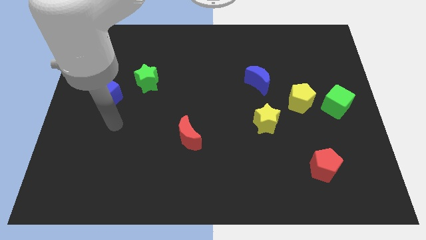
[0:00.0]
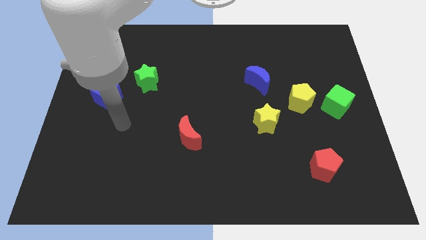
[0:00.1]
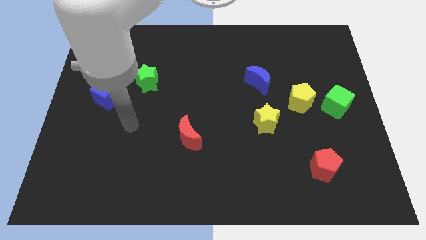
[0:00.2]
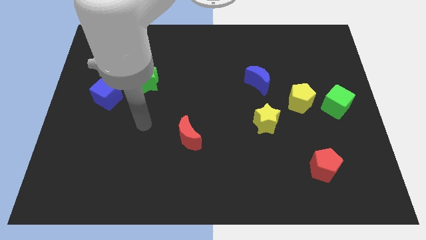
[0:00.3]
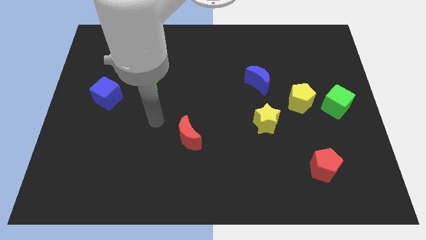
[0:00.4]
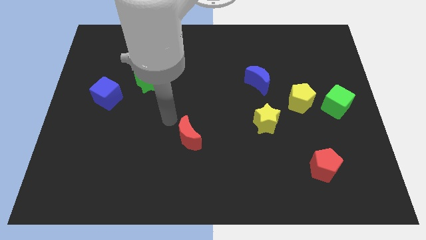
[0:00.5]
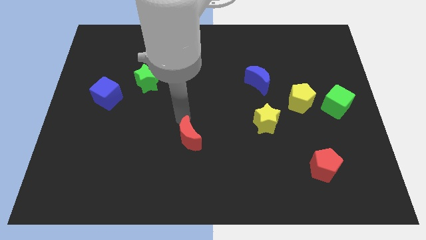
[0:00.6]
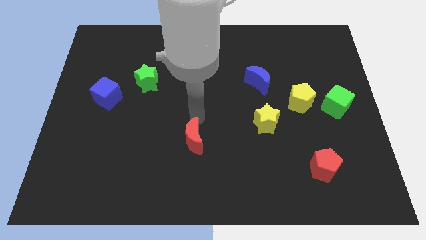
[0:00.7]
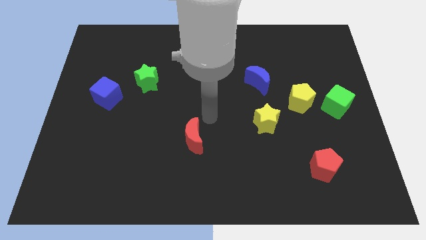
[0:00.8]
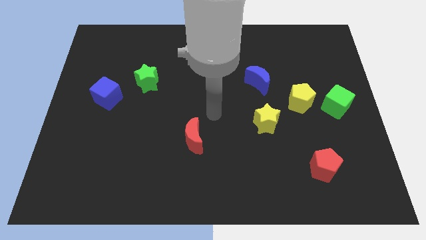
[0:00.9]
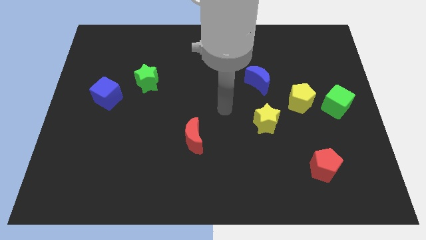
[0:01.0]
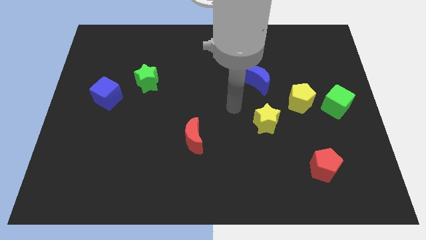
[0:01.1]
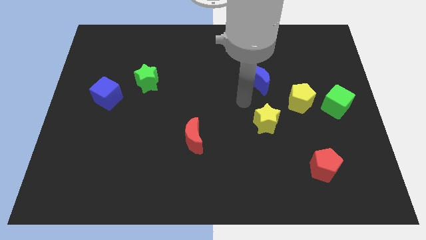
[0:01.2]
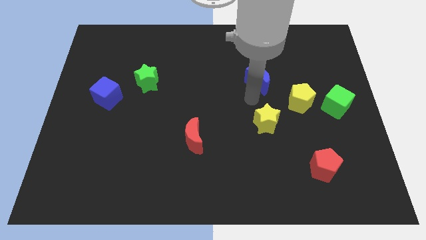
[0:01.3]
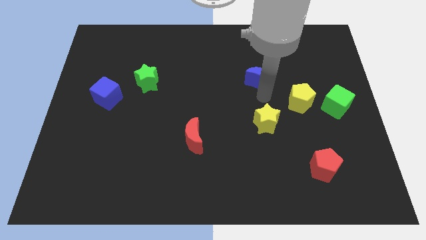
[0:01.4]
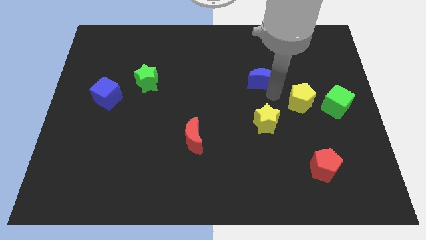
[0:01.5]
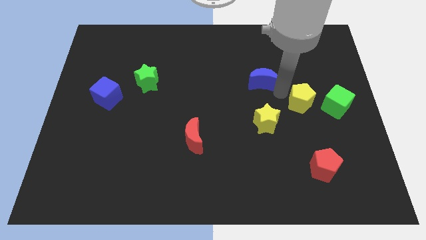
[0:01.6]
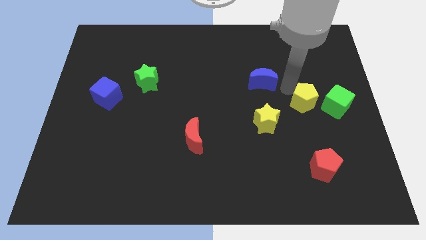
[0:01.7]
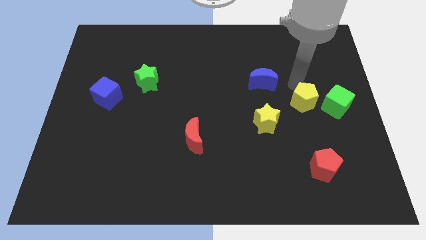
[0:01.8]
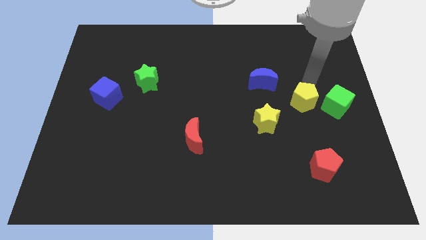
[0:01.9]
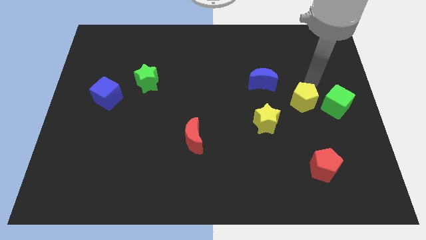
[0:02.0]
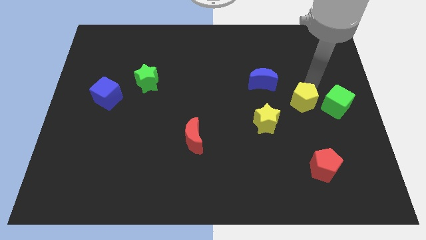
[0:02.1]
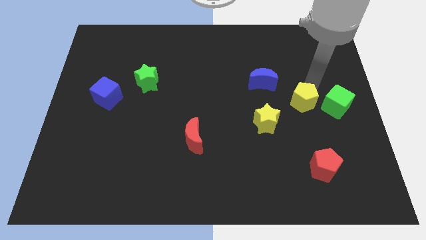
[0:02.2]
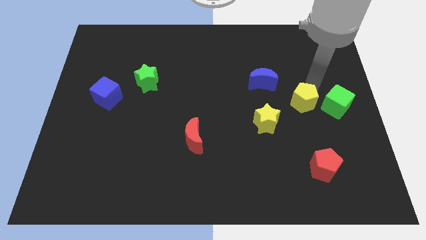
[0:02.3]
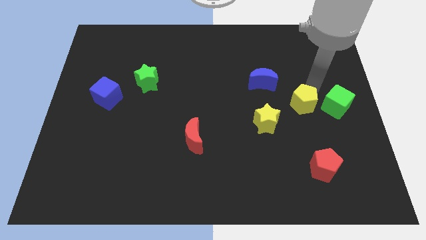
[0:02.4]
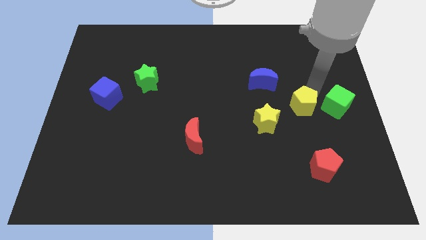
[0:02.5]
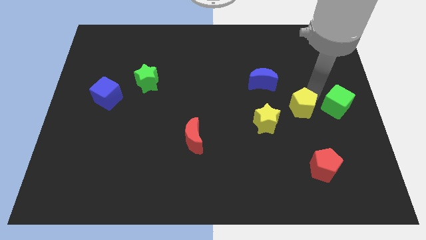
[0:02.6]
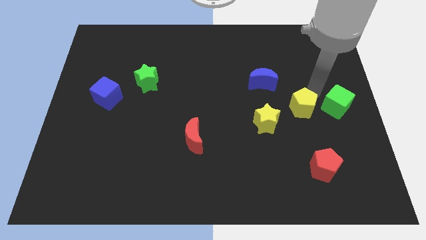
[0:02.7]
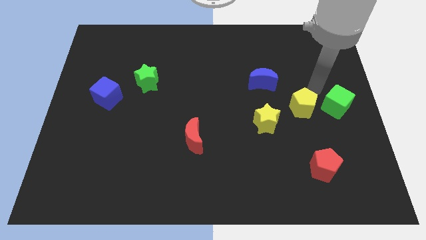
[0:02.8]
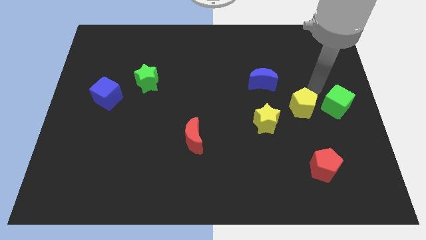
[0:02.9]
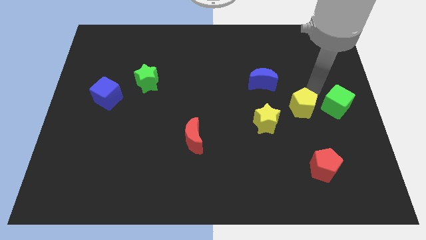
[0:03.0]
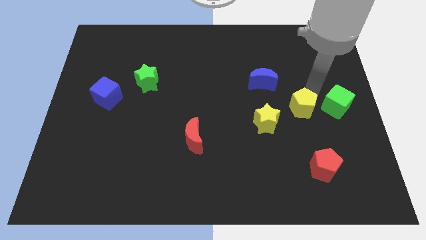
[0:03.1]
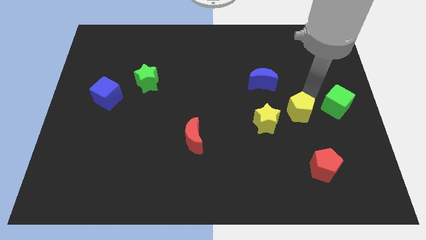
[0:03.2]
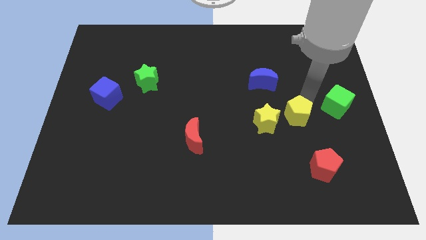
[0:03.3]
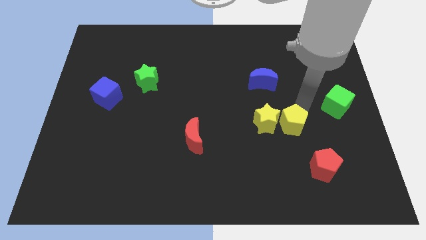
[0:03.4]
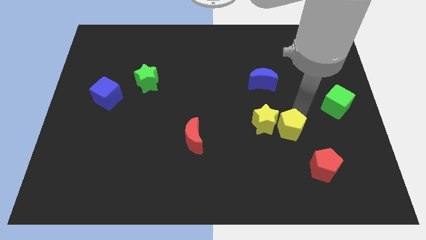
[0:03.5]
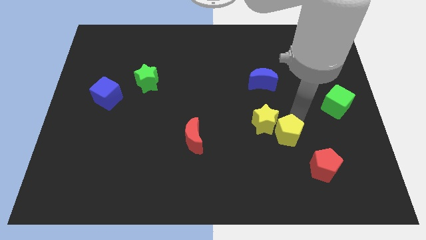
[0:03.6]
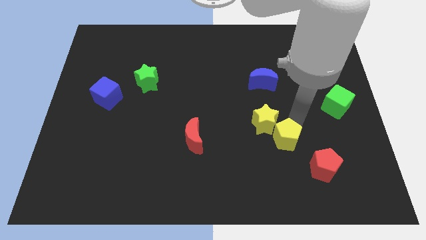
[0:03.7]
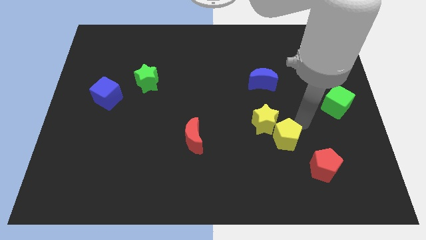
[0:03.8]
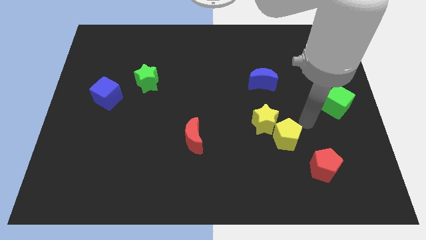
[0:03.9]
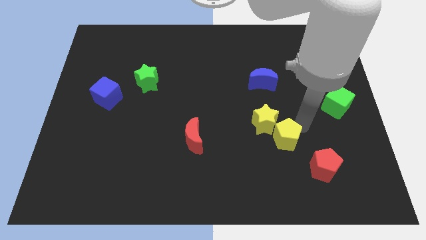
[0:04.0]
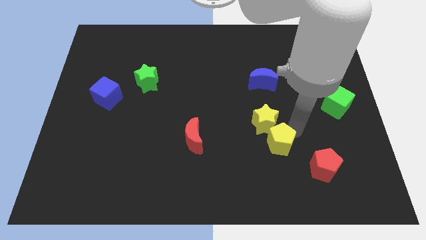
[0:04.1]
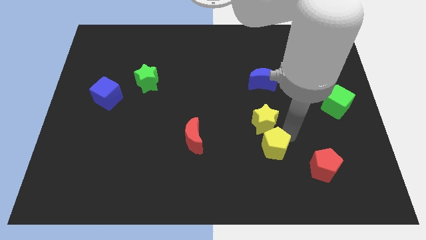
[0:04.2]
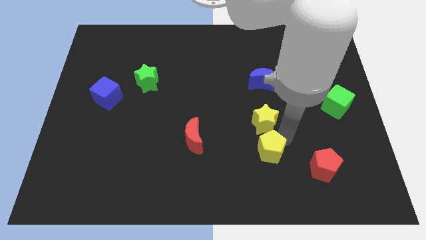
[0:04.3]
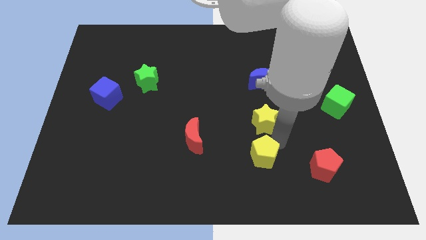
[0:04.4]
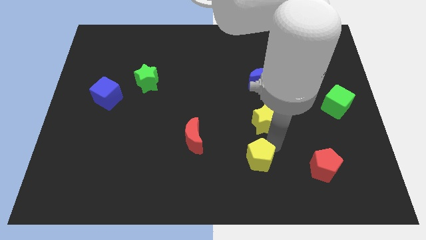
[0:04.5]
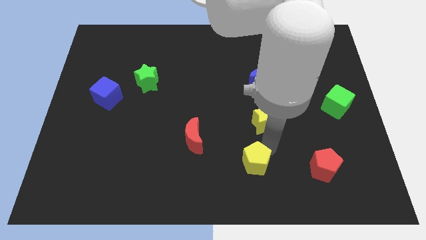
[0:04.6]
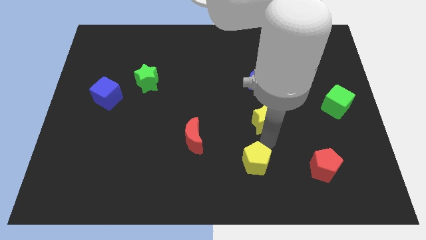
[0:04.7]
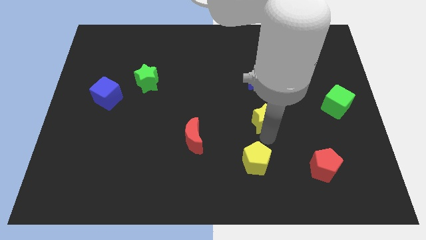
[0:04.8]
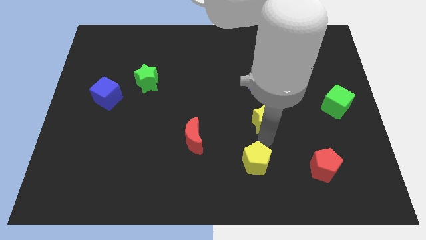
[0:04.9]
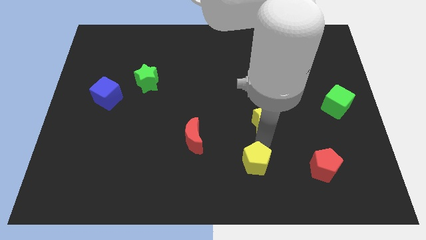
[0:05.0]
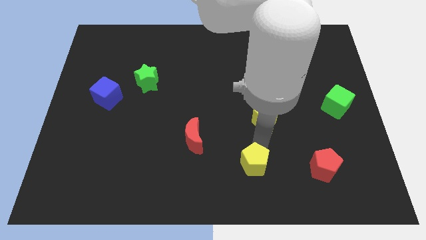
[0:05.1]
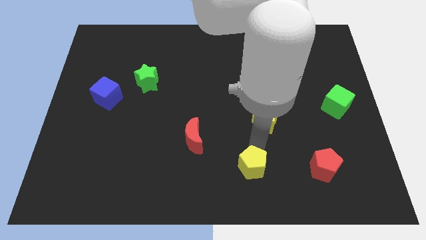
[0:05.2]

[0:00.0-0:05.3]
put the yellow pentagon to the bottom

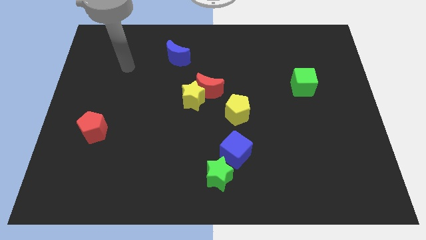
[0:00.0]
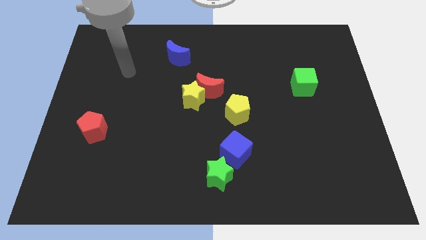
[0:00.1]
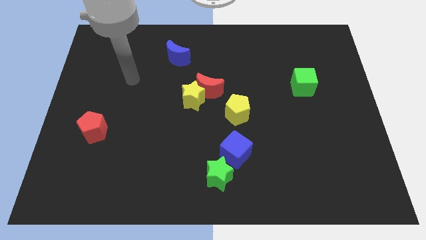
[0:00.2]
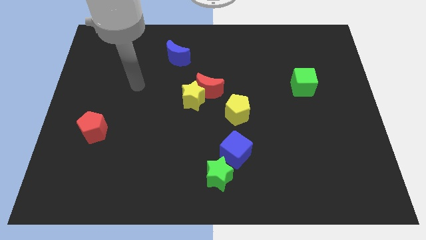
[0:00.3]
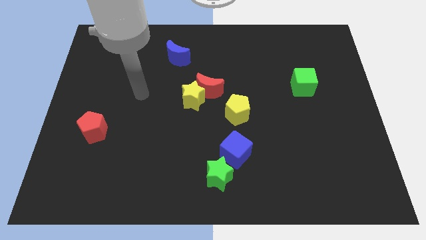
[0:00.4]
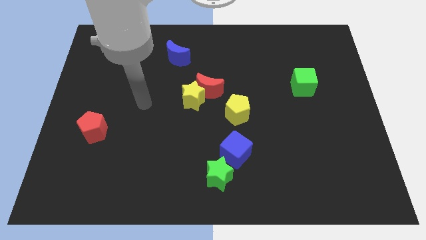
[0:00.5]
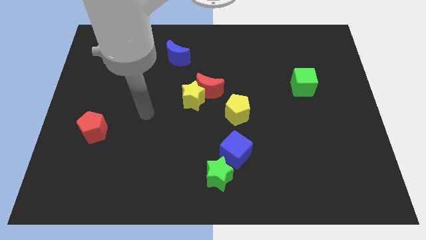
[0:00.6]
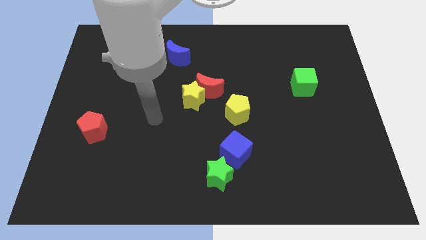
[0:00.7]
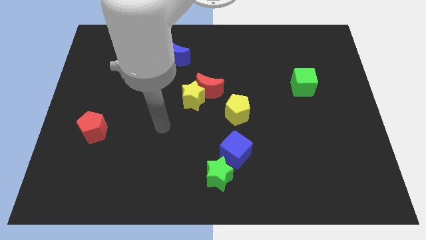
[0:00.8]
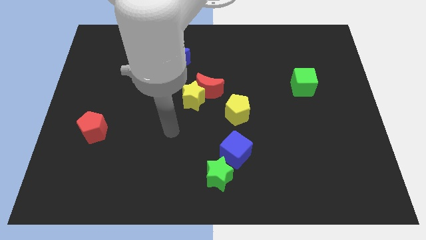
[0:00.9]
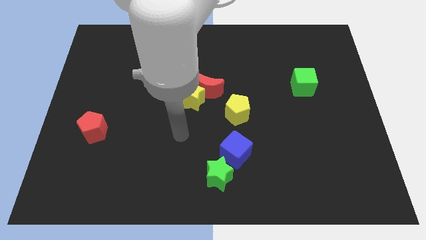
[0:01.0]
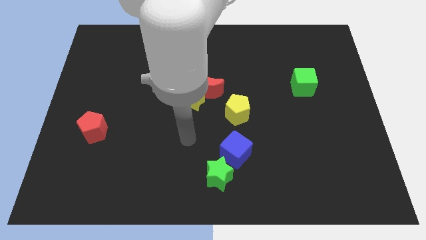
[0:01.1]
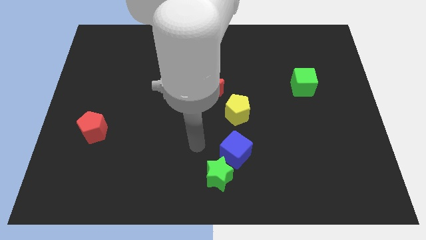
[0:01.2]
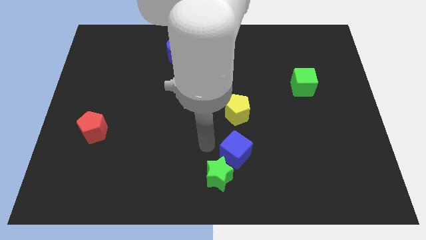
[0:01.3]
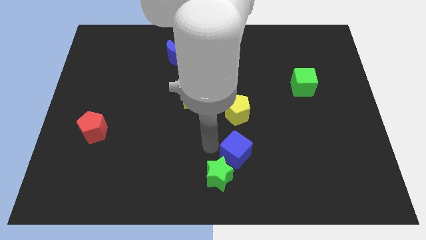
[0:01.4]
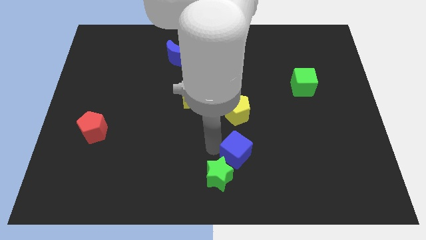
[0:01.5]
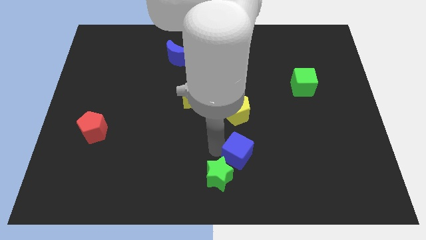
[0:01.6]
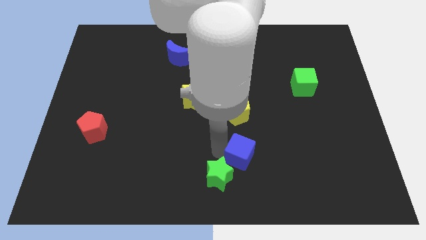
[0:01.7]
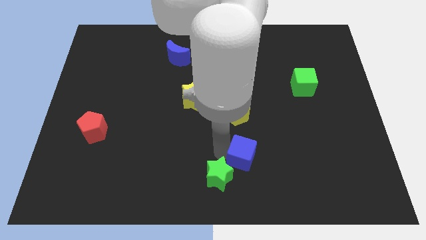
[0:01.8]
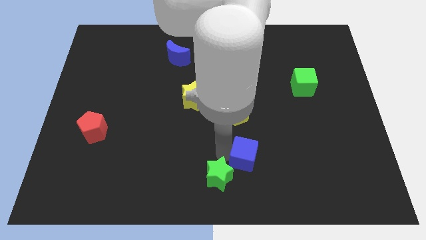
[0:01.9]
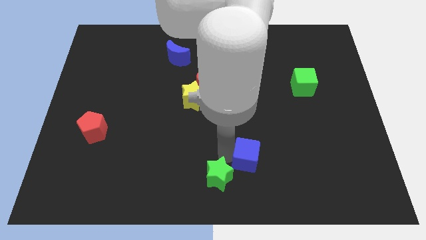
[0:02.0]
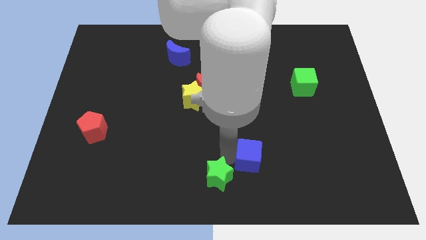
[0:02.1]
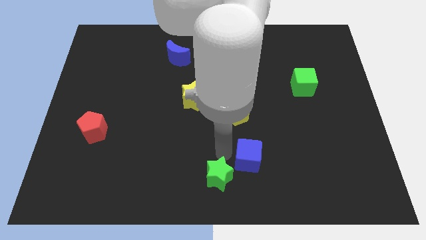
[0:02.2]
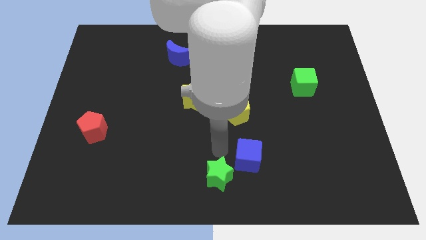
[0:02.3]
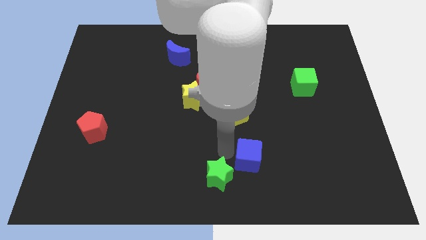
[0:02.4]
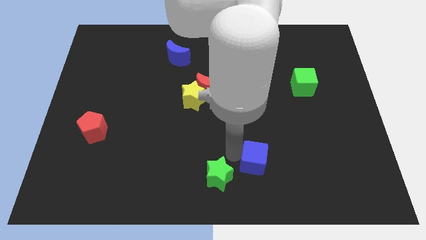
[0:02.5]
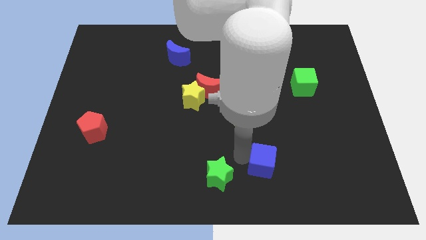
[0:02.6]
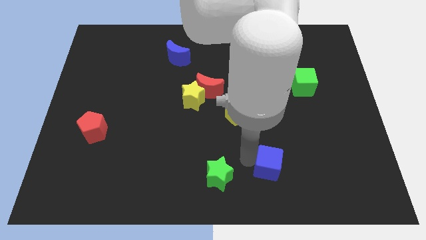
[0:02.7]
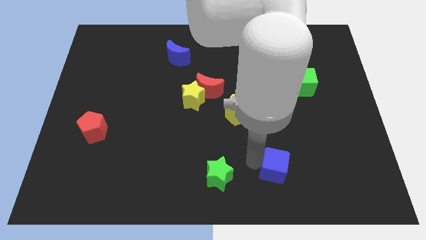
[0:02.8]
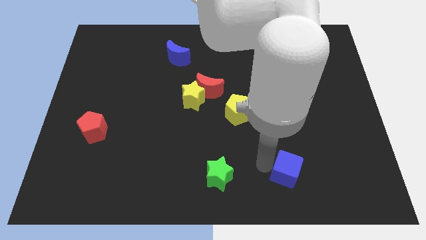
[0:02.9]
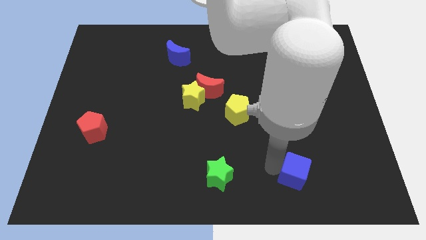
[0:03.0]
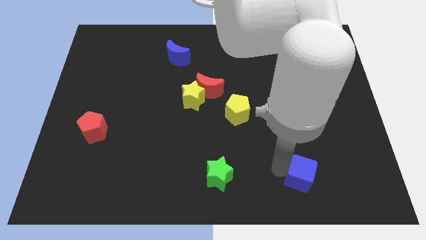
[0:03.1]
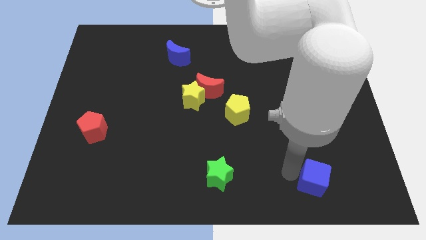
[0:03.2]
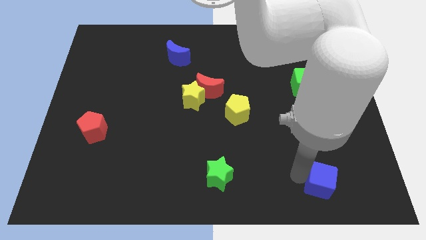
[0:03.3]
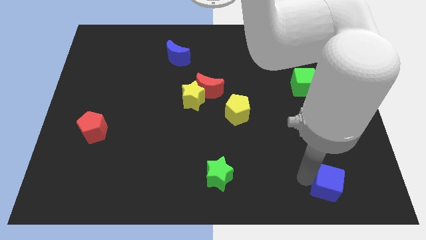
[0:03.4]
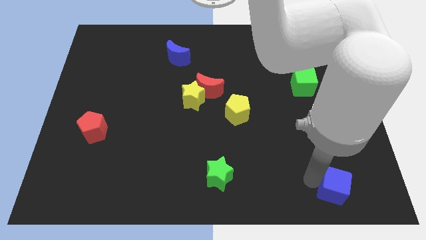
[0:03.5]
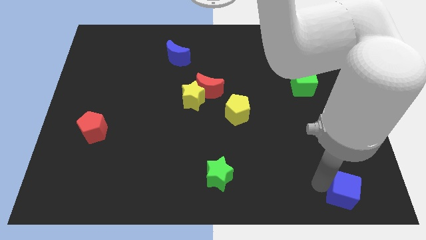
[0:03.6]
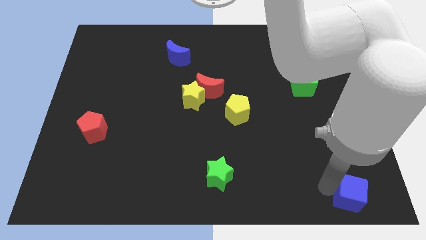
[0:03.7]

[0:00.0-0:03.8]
slide the blue cube to the bottom right corner
